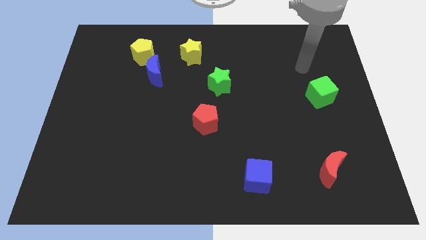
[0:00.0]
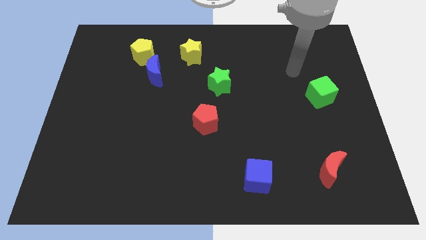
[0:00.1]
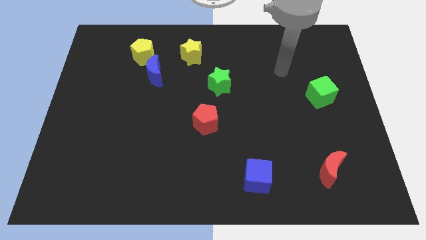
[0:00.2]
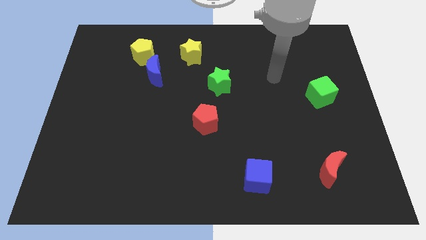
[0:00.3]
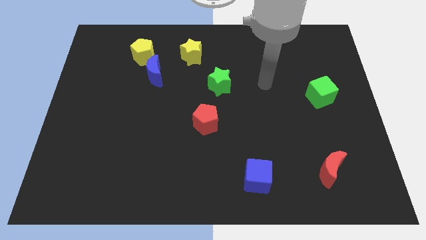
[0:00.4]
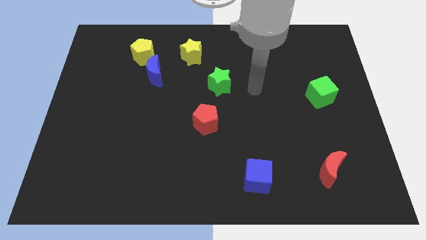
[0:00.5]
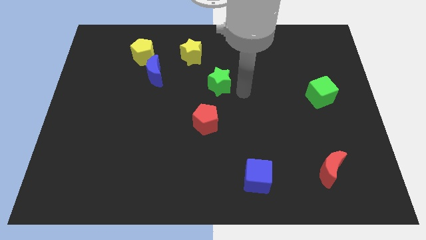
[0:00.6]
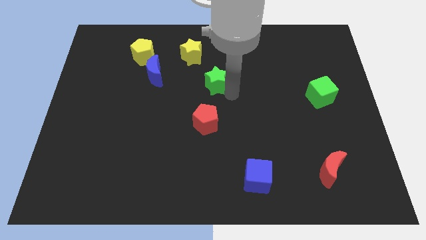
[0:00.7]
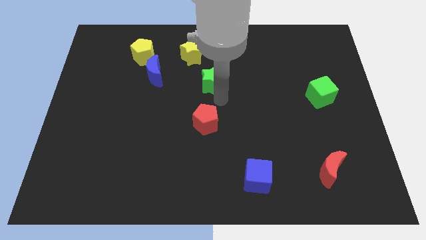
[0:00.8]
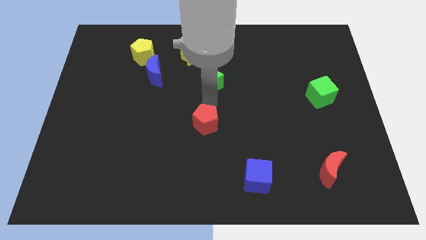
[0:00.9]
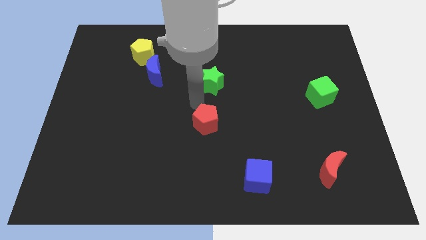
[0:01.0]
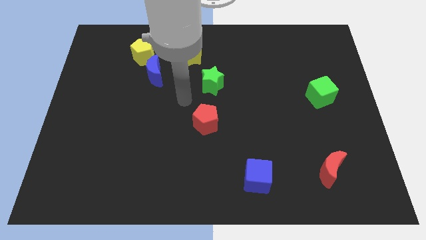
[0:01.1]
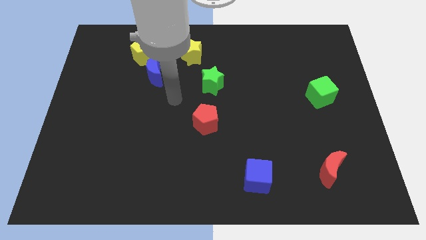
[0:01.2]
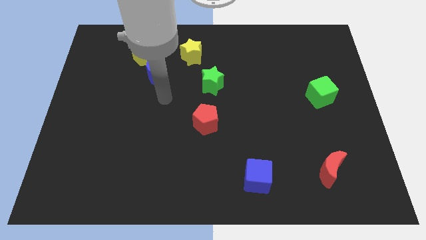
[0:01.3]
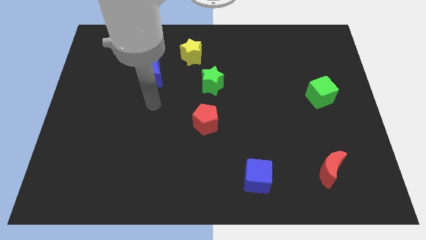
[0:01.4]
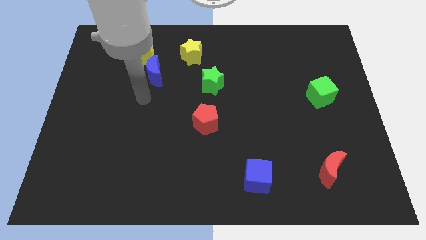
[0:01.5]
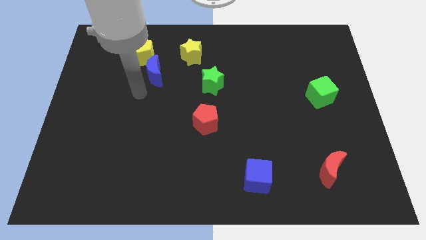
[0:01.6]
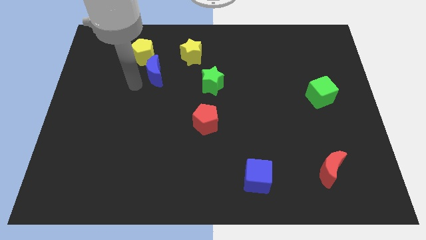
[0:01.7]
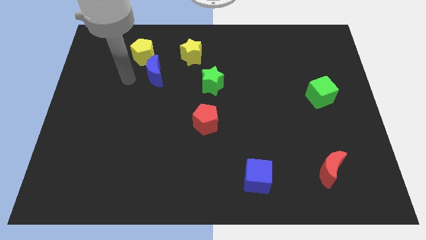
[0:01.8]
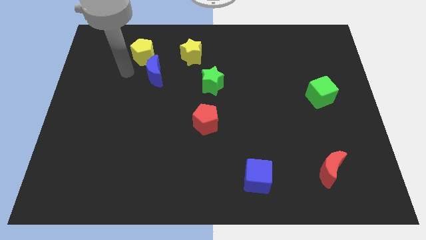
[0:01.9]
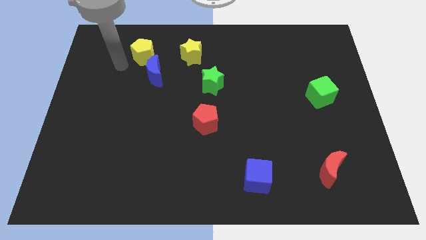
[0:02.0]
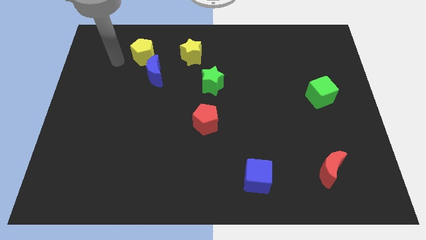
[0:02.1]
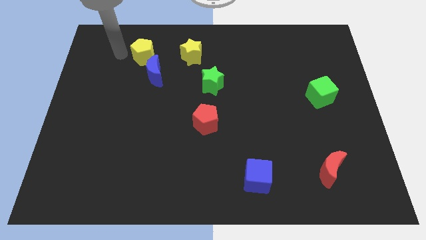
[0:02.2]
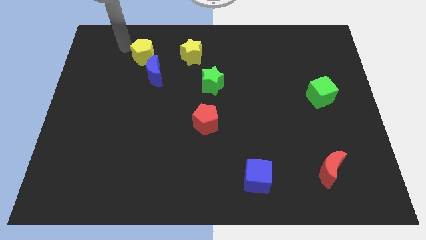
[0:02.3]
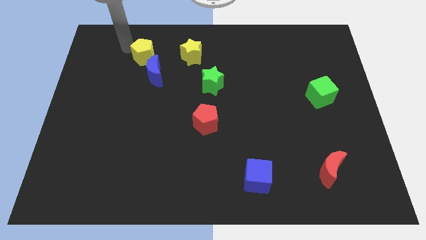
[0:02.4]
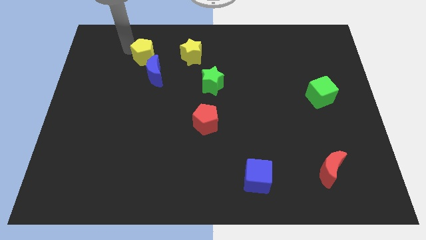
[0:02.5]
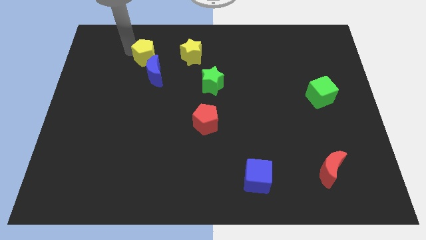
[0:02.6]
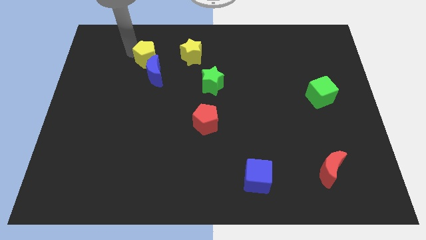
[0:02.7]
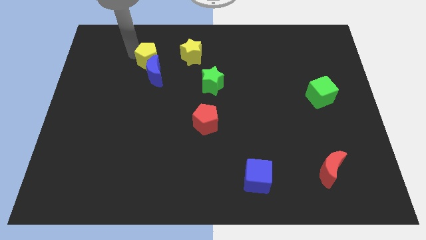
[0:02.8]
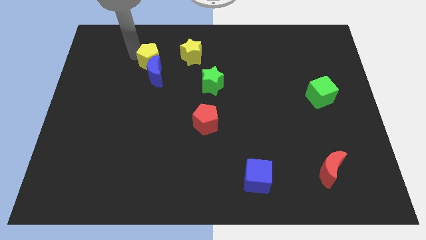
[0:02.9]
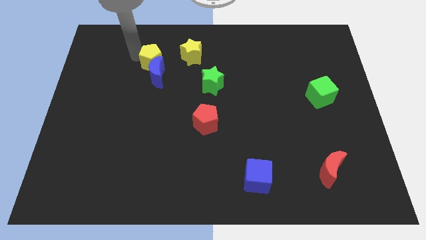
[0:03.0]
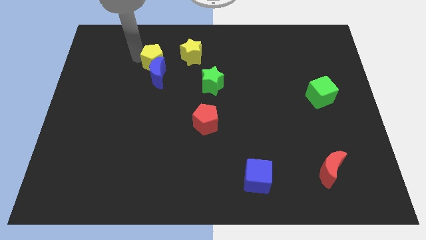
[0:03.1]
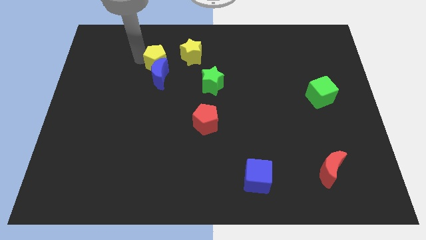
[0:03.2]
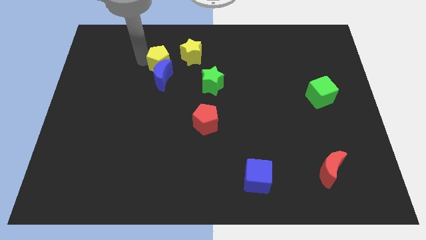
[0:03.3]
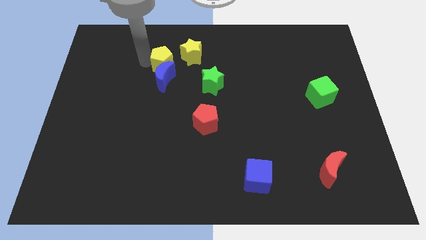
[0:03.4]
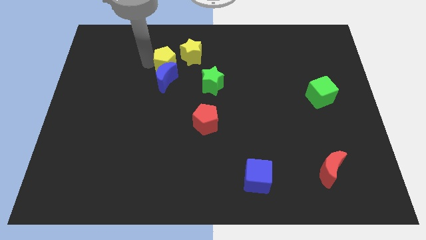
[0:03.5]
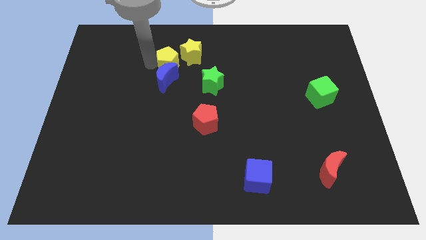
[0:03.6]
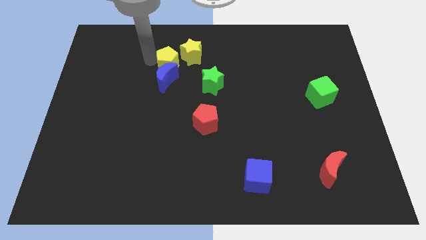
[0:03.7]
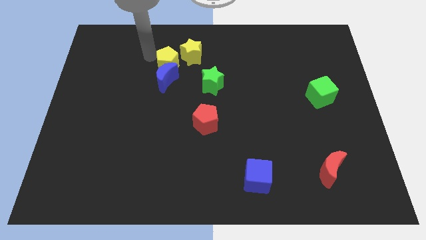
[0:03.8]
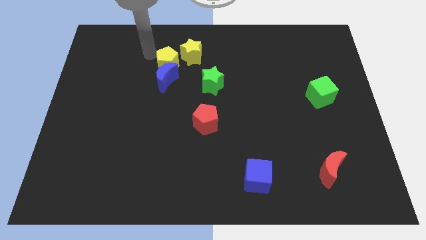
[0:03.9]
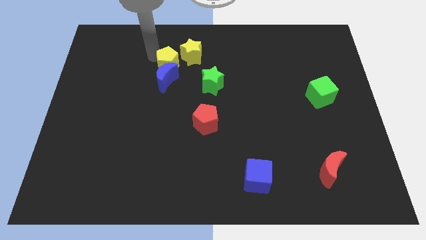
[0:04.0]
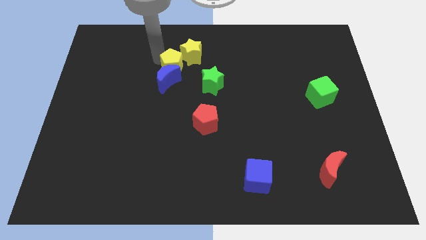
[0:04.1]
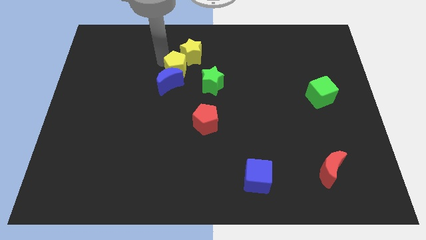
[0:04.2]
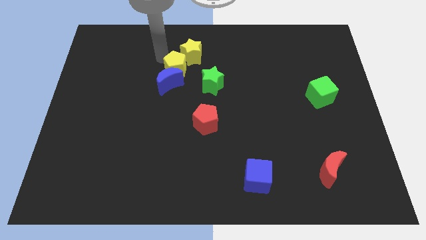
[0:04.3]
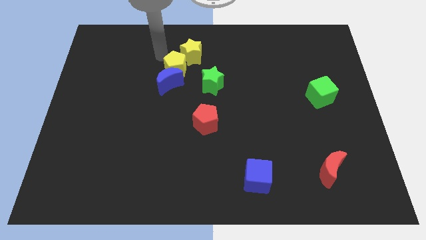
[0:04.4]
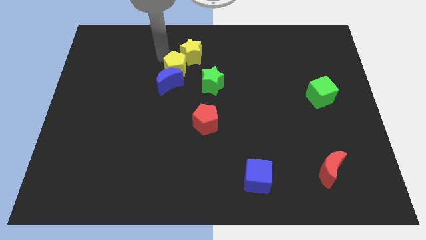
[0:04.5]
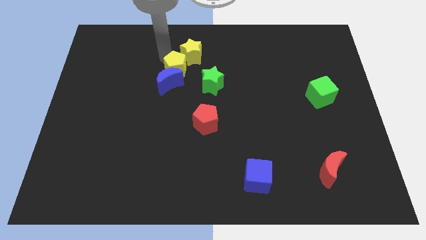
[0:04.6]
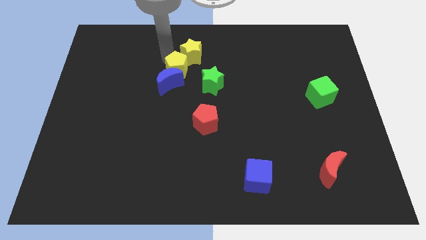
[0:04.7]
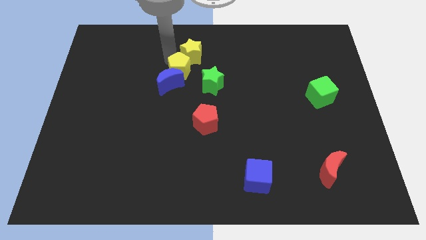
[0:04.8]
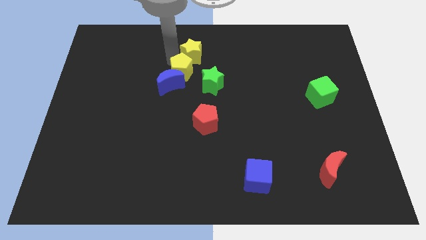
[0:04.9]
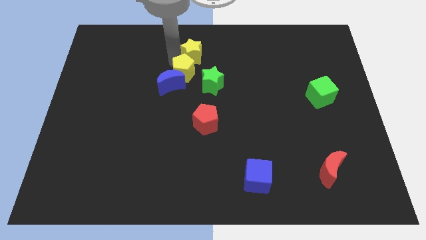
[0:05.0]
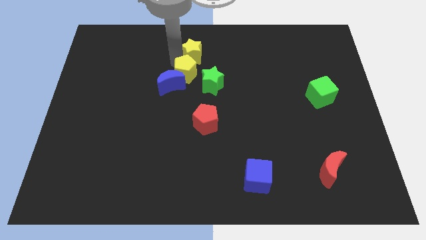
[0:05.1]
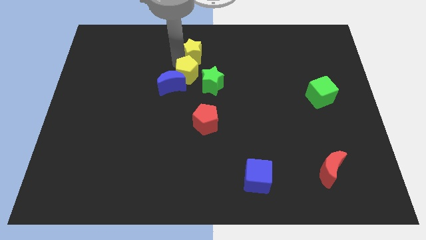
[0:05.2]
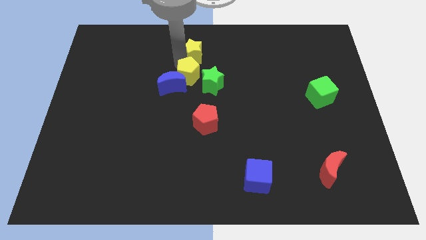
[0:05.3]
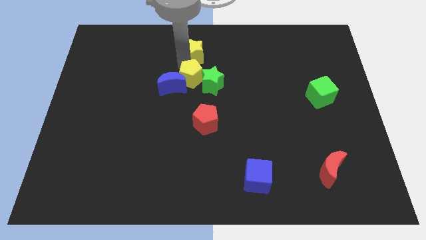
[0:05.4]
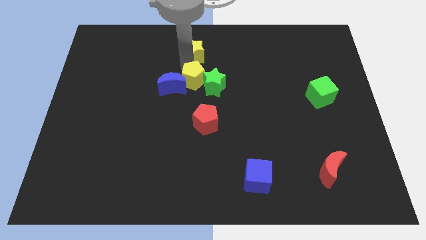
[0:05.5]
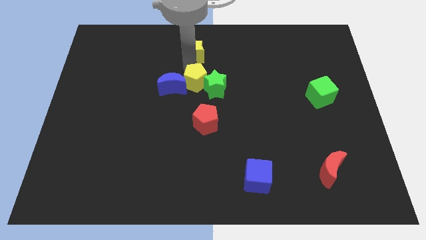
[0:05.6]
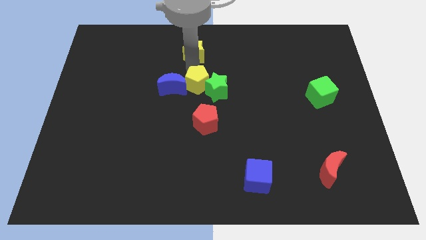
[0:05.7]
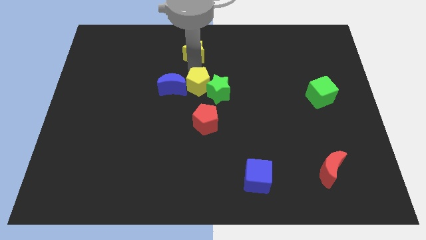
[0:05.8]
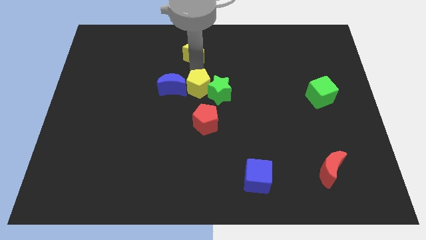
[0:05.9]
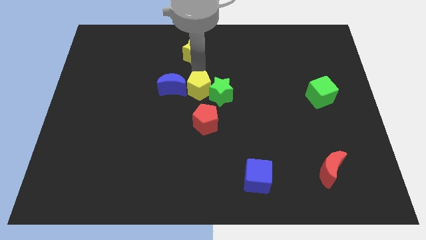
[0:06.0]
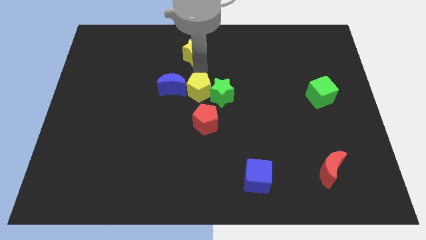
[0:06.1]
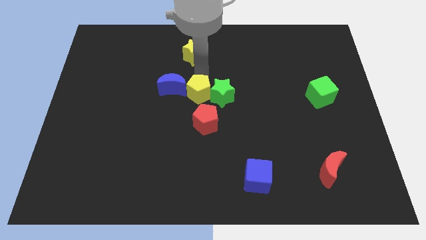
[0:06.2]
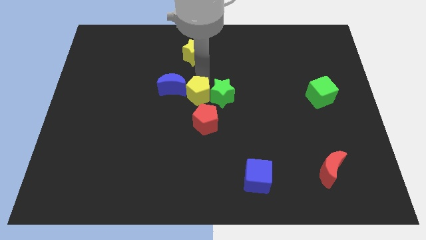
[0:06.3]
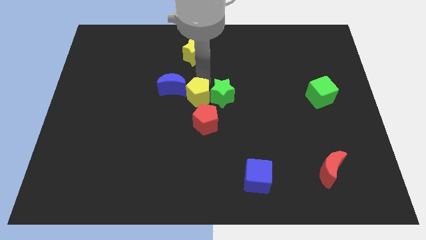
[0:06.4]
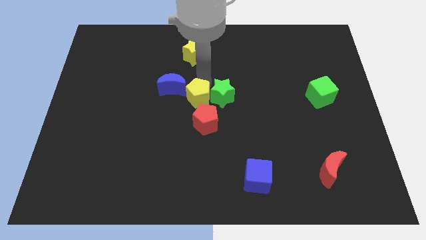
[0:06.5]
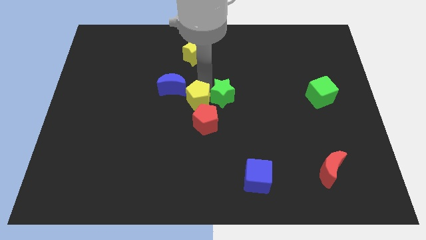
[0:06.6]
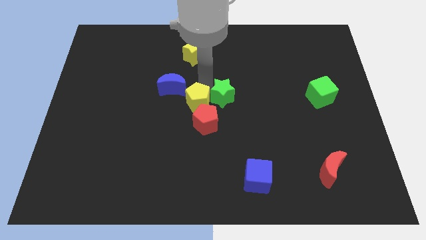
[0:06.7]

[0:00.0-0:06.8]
slide the yellow pentagon towards the red pentagon

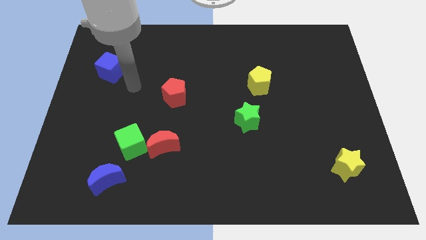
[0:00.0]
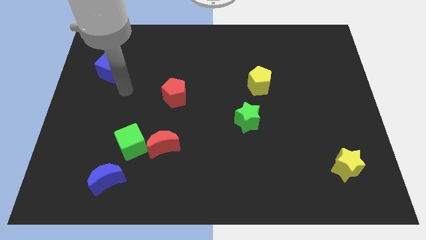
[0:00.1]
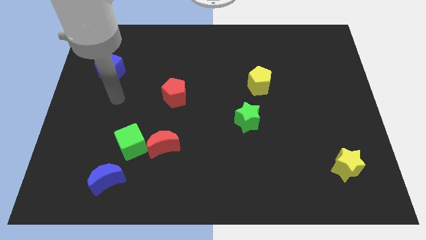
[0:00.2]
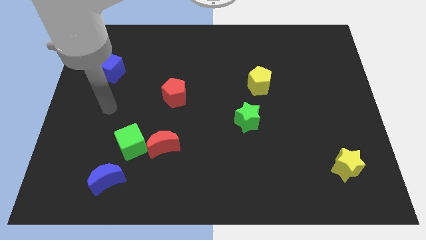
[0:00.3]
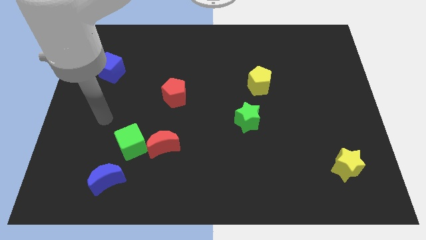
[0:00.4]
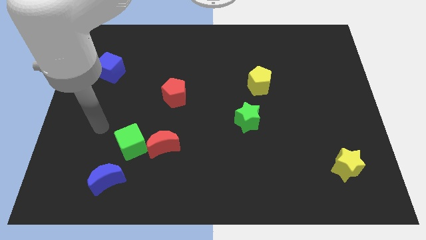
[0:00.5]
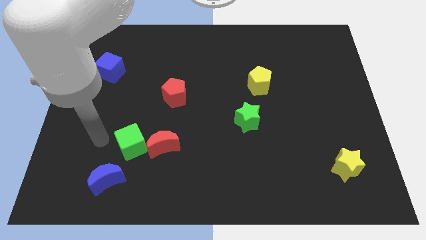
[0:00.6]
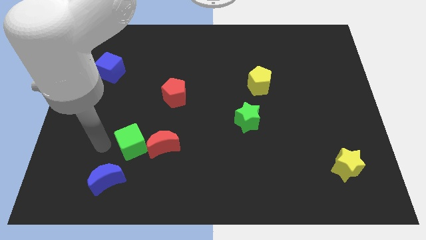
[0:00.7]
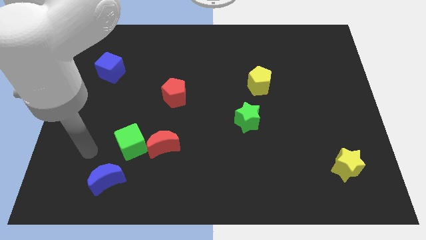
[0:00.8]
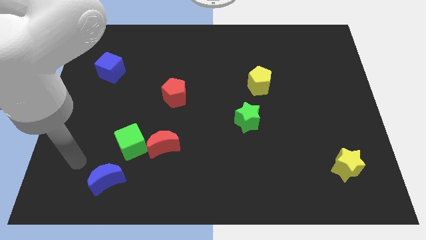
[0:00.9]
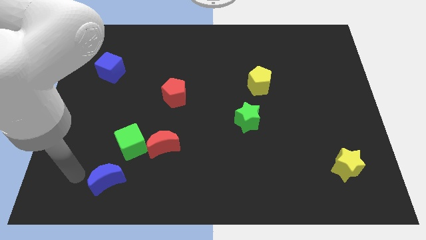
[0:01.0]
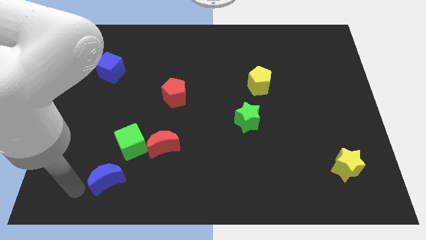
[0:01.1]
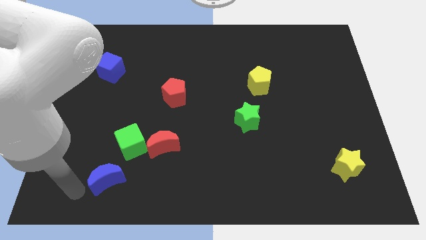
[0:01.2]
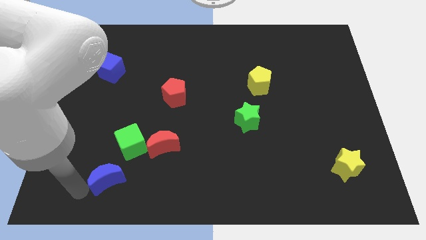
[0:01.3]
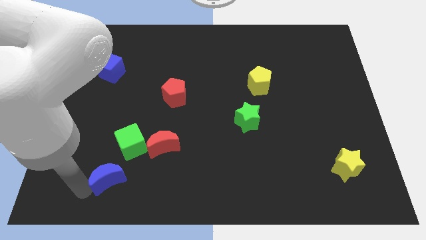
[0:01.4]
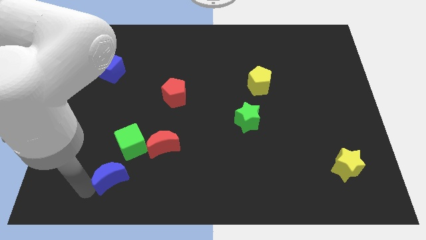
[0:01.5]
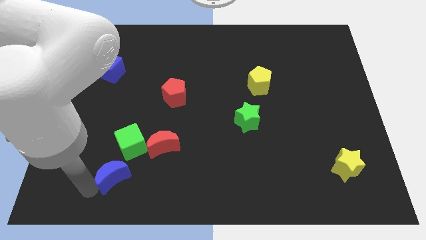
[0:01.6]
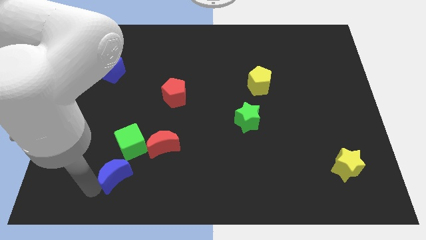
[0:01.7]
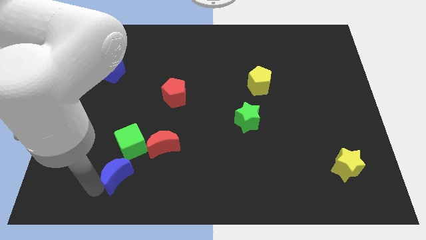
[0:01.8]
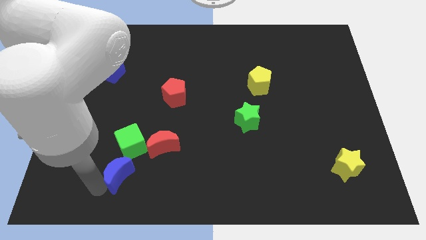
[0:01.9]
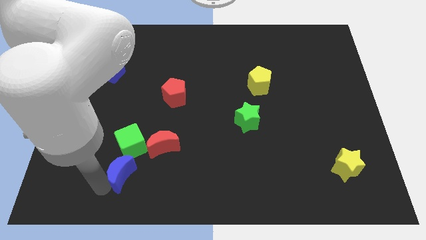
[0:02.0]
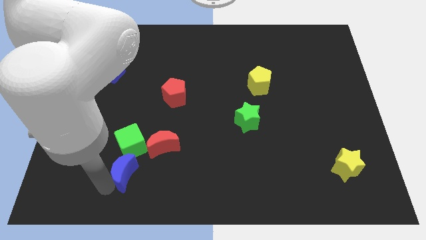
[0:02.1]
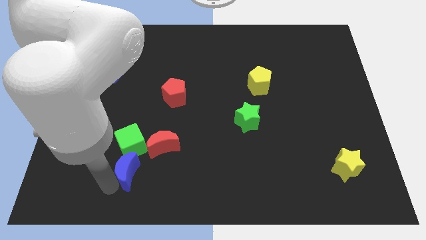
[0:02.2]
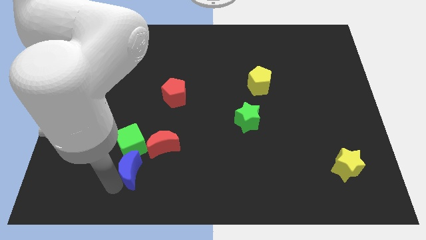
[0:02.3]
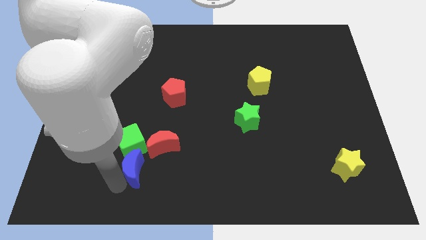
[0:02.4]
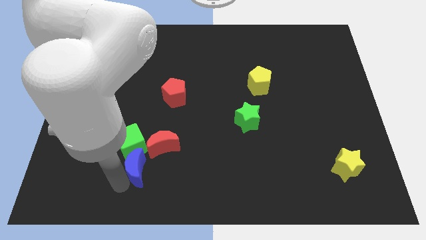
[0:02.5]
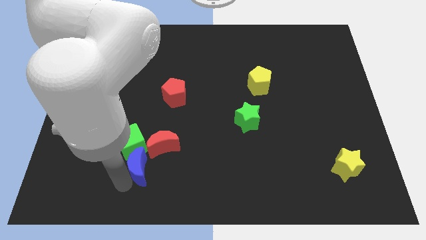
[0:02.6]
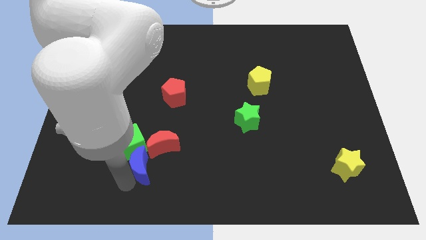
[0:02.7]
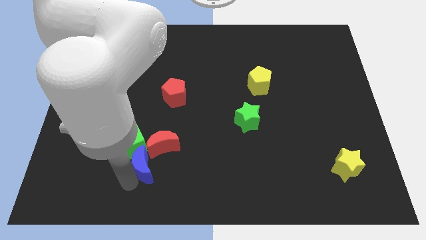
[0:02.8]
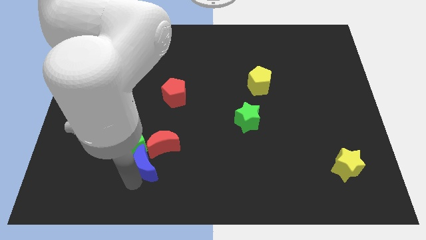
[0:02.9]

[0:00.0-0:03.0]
put the blue moon next to the red moon
